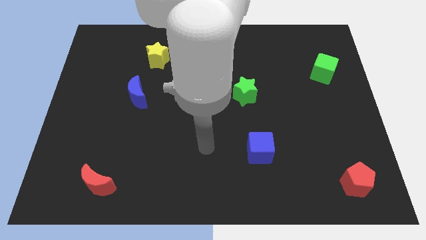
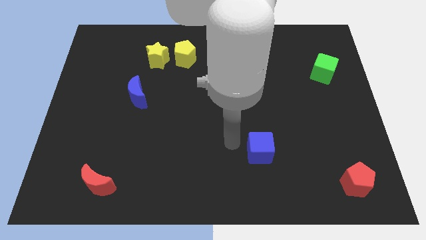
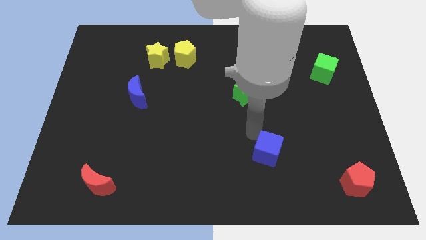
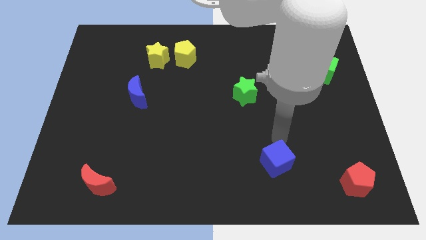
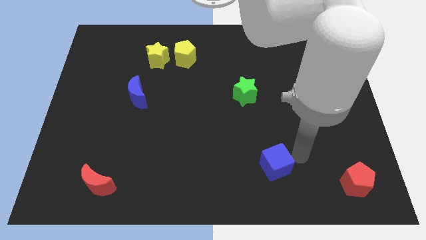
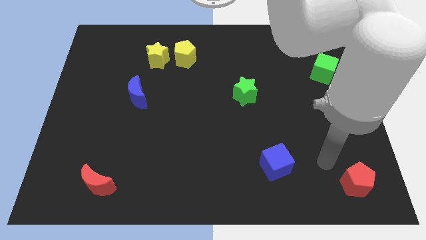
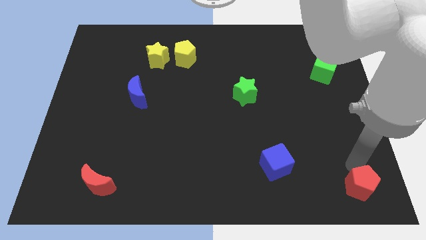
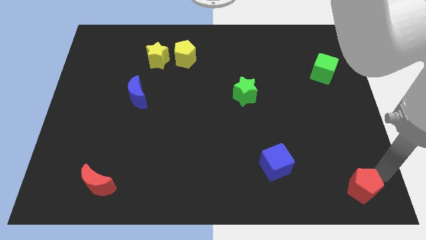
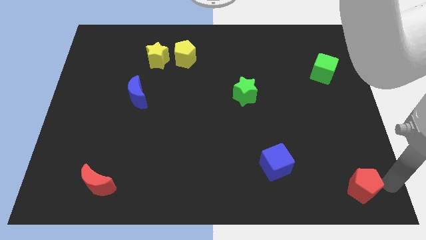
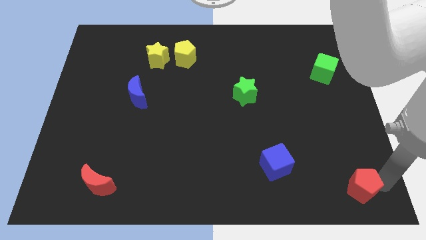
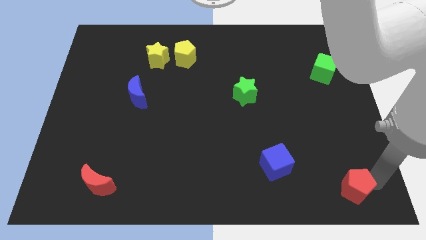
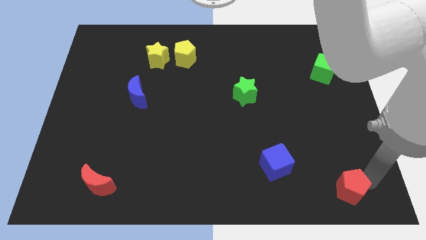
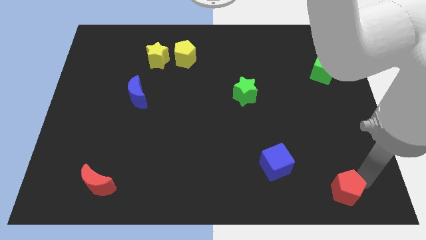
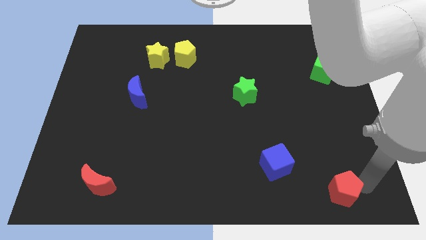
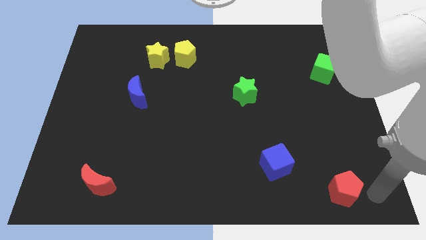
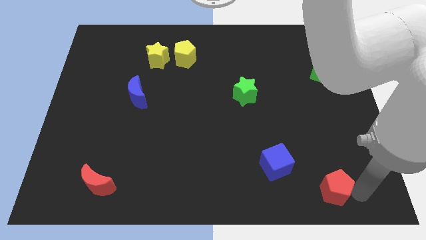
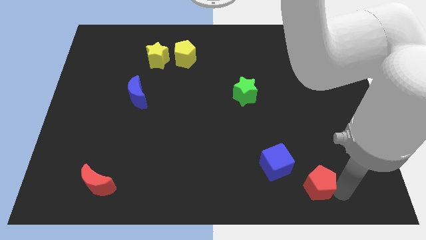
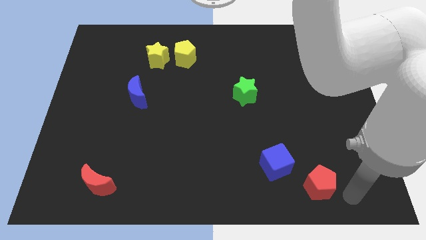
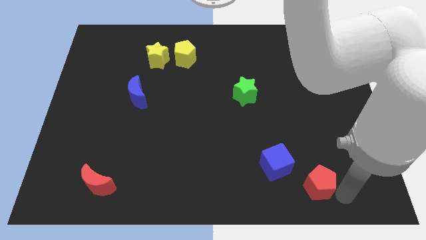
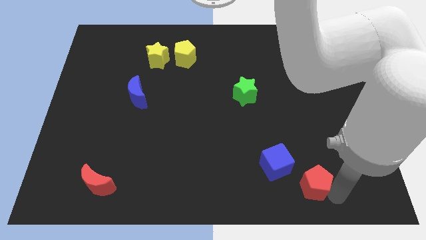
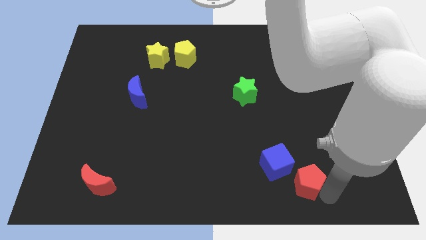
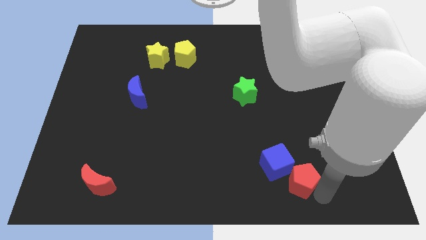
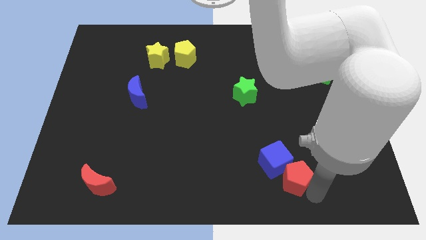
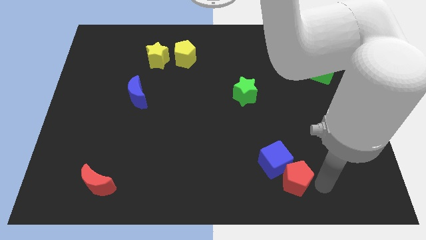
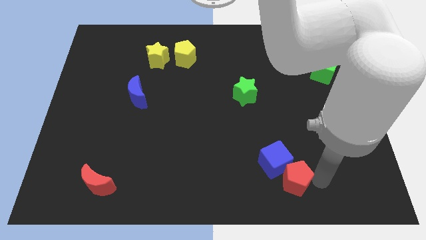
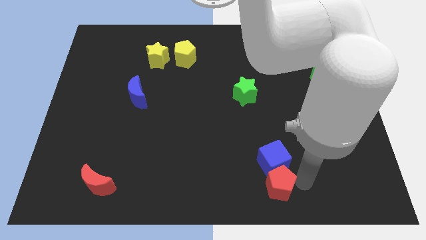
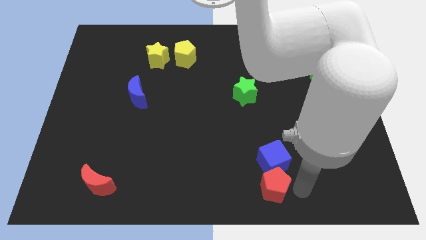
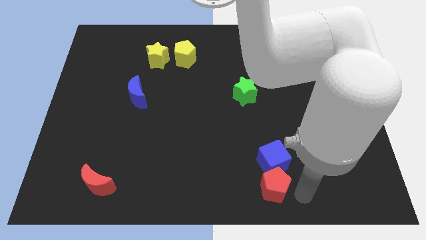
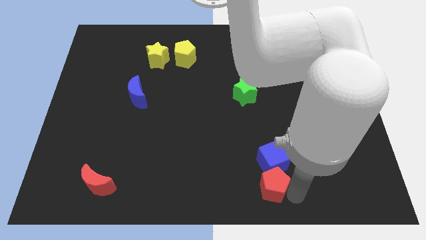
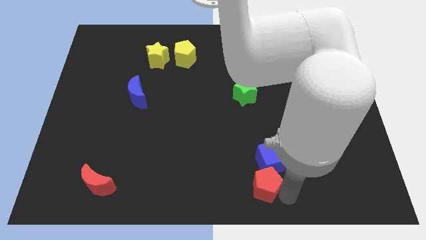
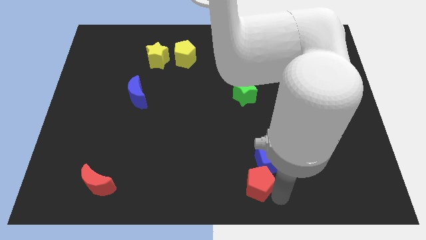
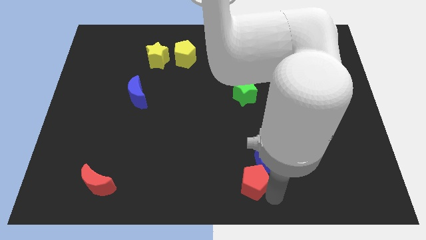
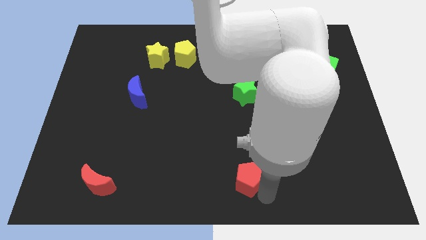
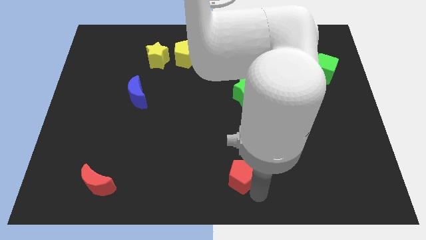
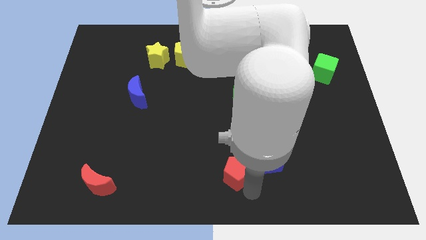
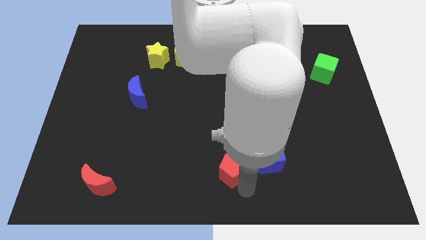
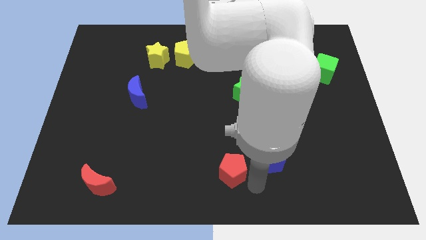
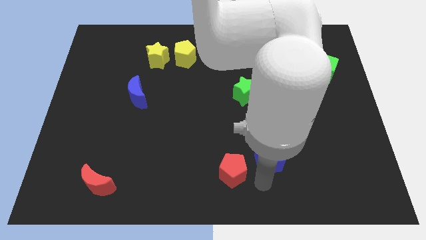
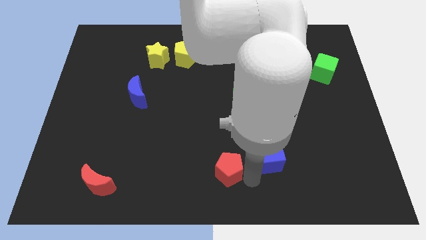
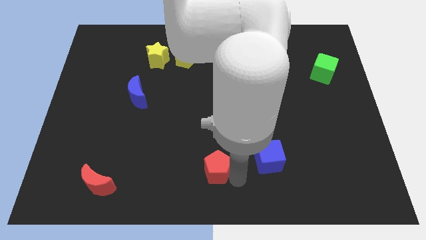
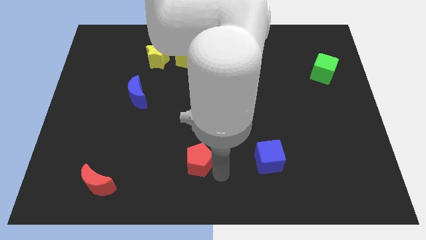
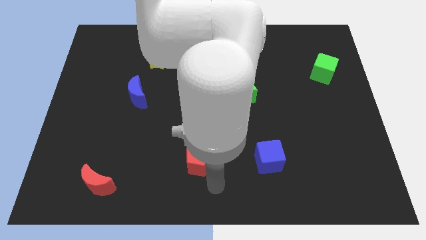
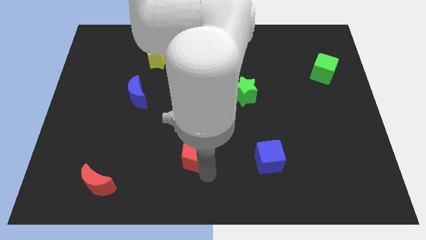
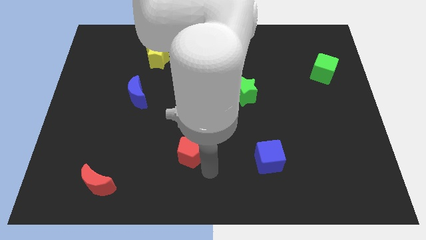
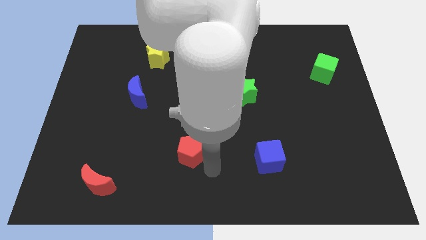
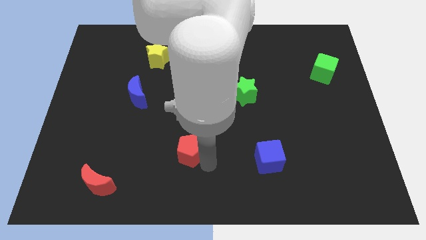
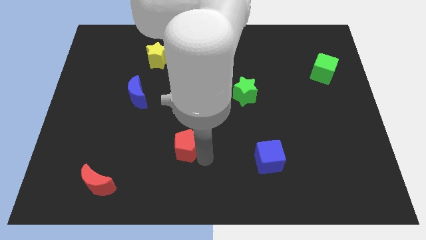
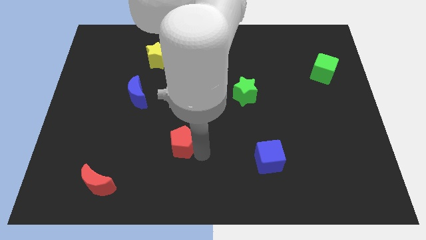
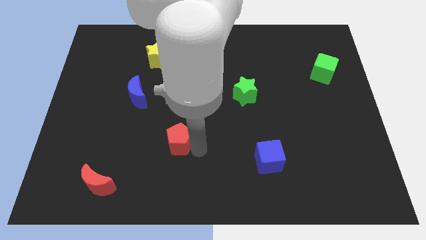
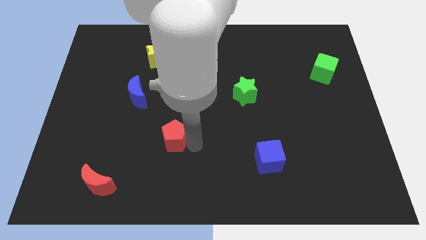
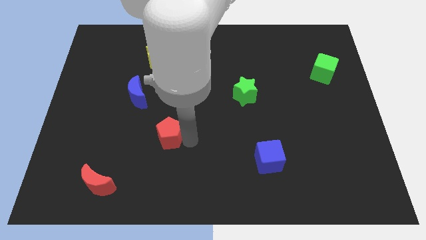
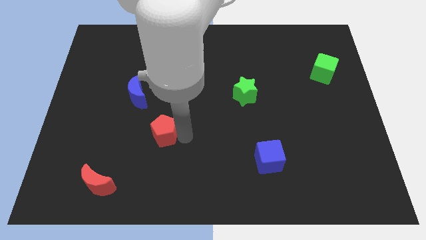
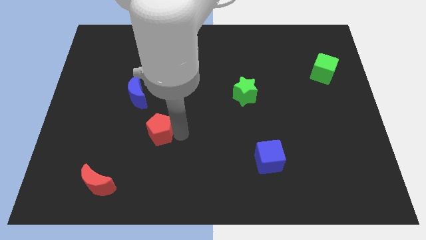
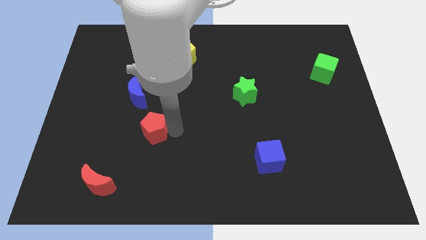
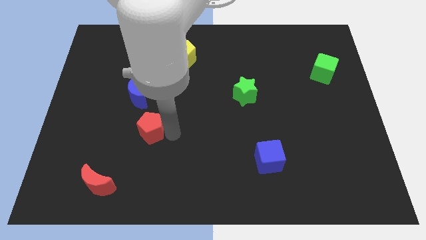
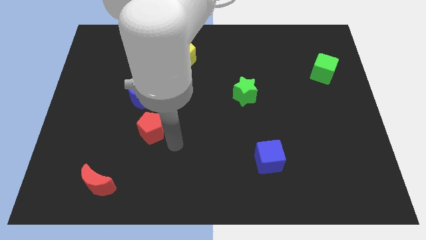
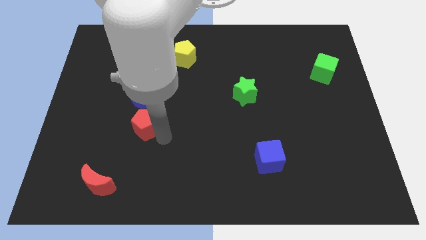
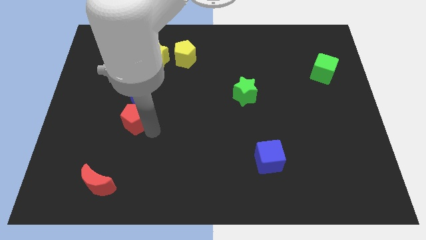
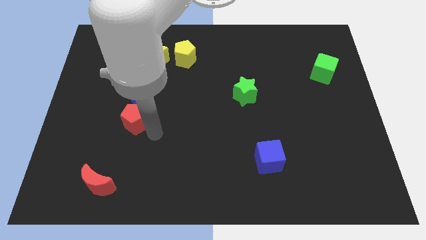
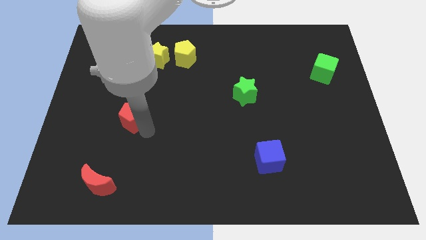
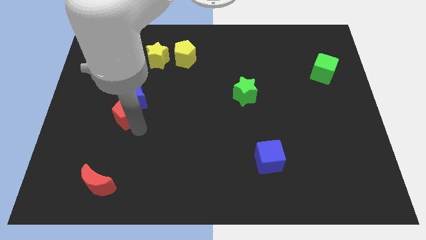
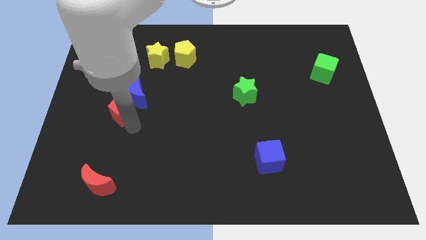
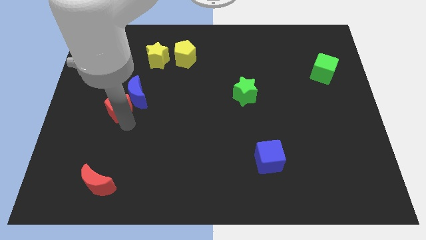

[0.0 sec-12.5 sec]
slide the red pentagon to the left of the blue moon

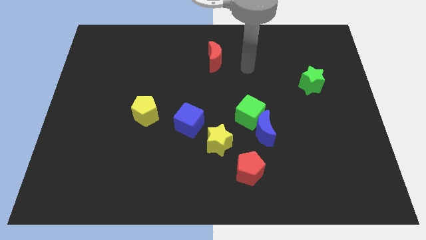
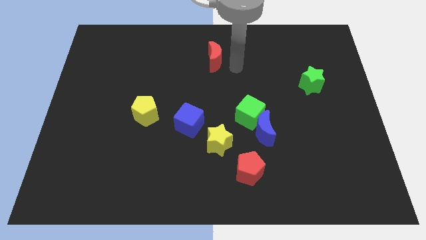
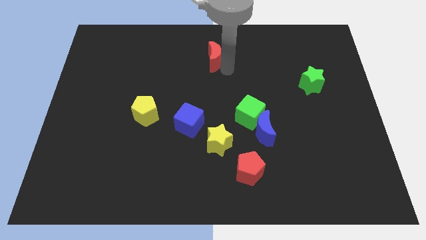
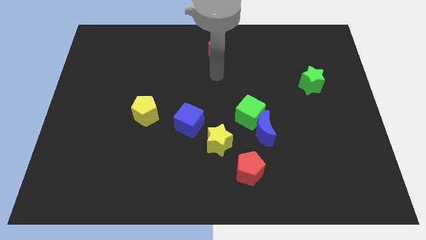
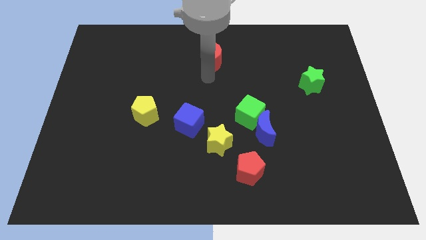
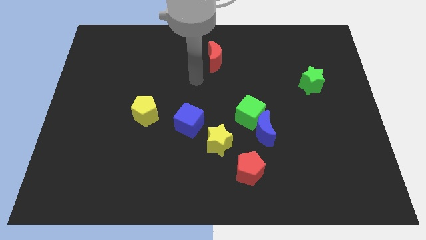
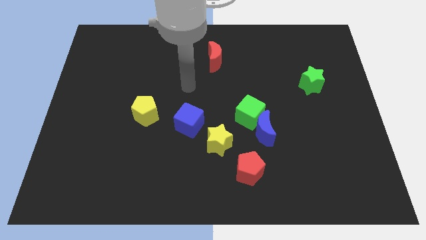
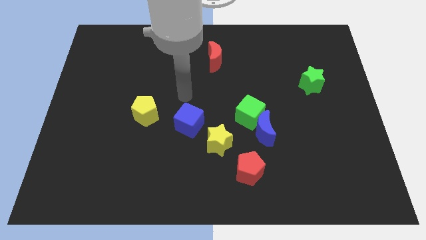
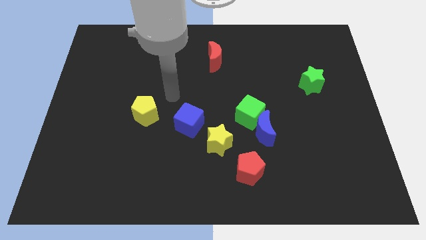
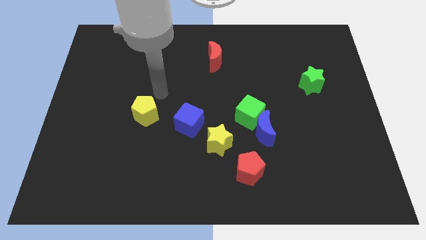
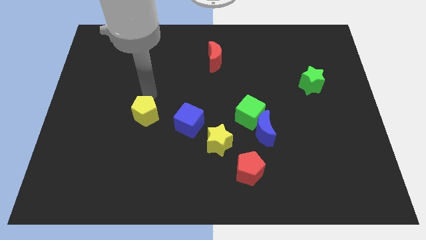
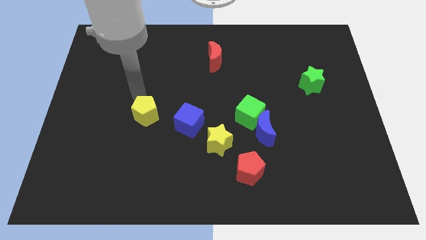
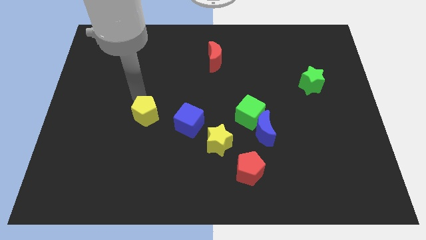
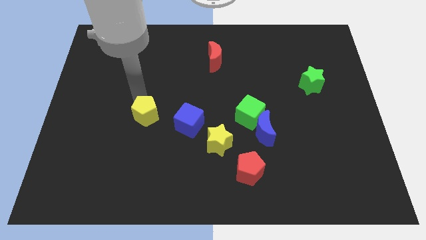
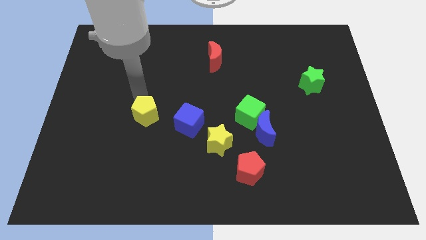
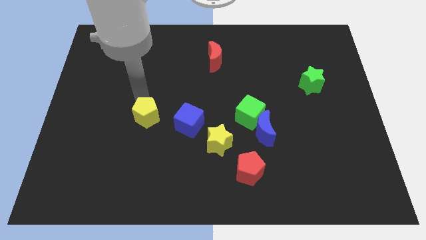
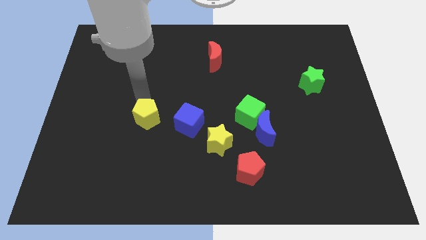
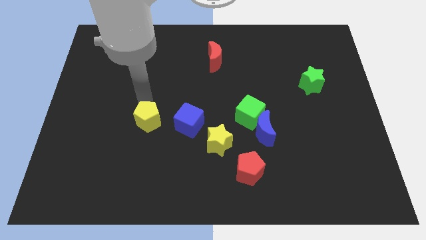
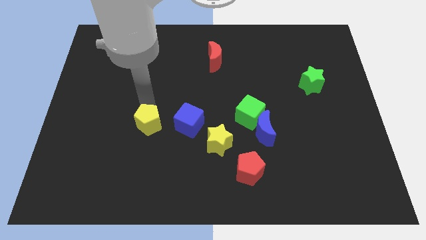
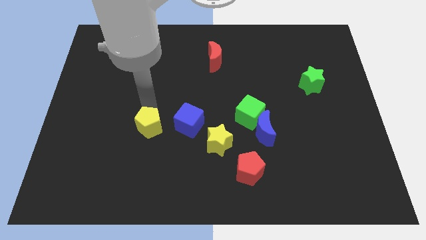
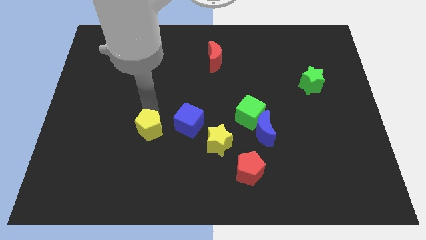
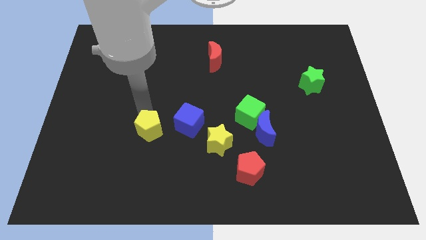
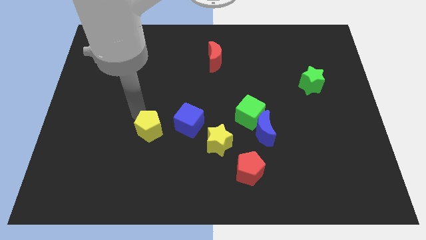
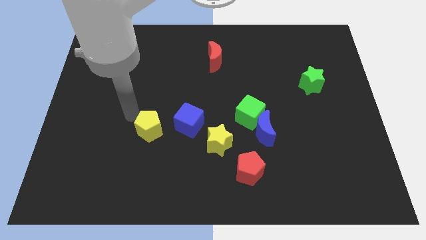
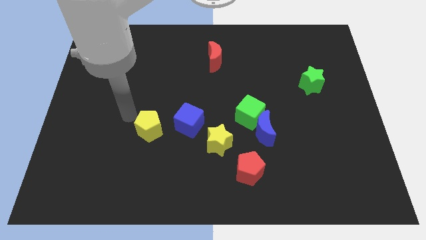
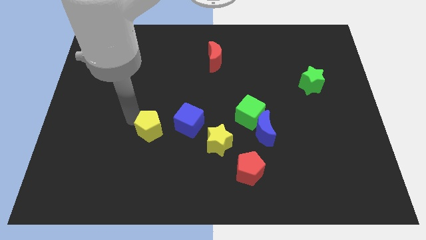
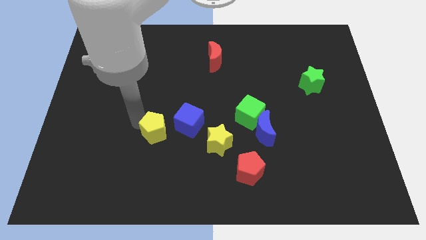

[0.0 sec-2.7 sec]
move the yellow pentagon just left of the yellow star
